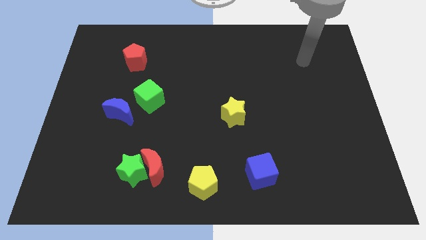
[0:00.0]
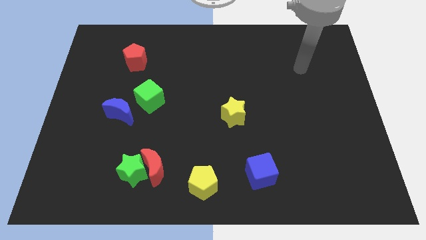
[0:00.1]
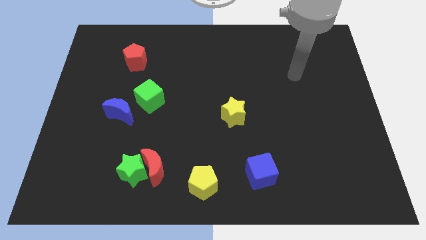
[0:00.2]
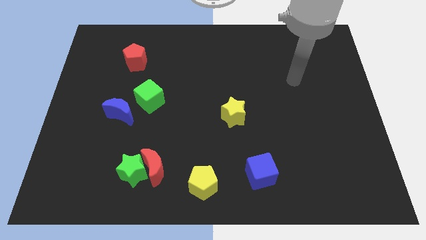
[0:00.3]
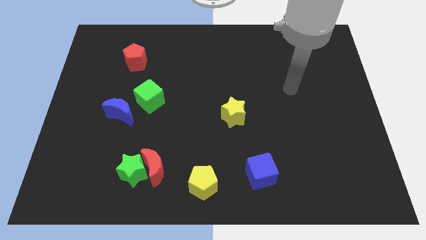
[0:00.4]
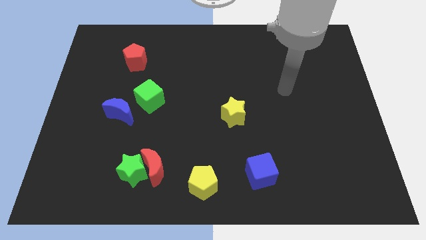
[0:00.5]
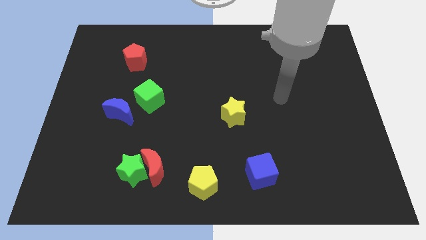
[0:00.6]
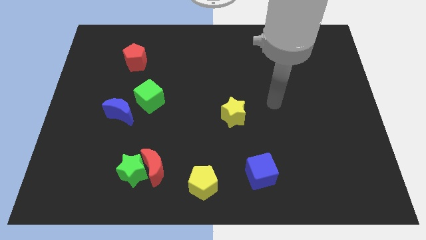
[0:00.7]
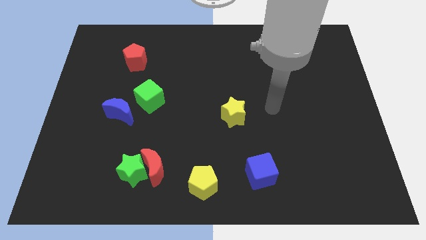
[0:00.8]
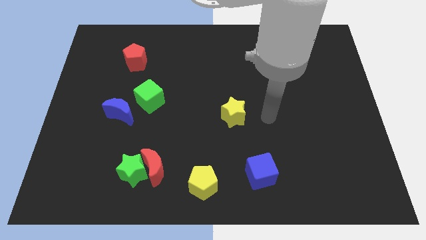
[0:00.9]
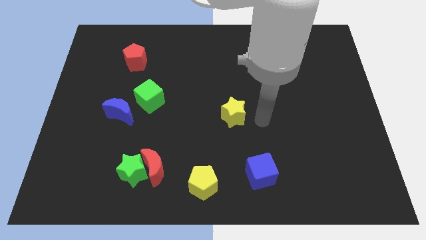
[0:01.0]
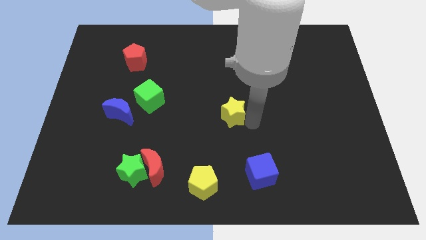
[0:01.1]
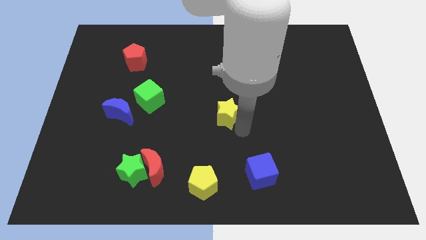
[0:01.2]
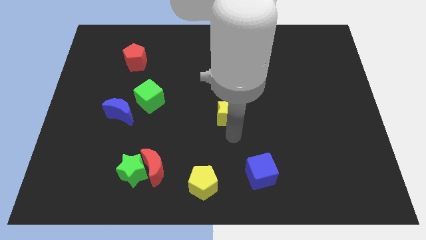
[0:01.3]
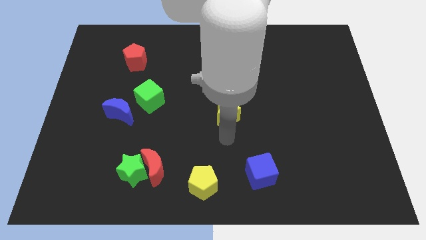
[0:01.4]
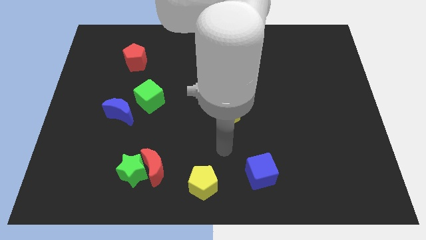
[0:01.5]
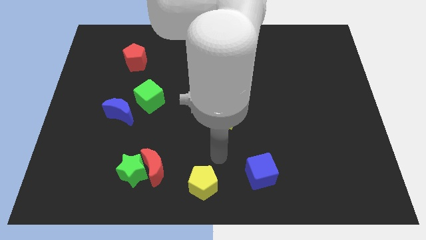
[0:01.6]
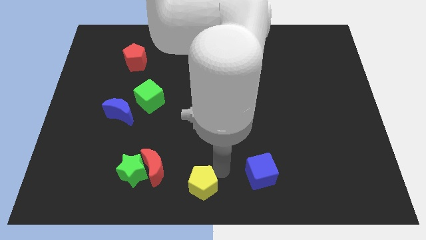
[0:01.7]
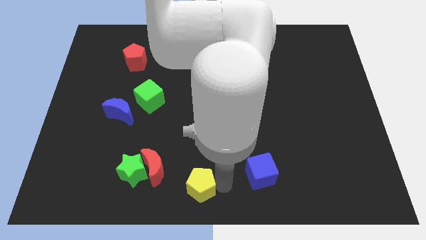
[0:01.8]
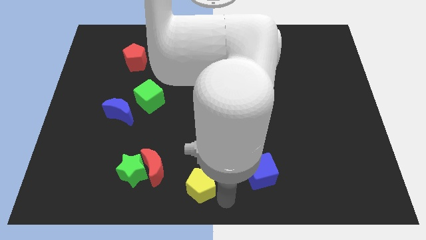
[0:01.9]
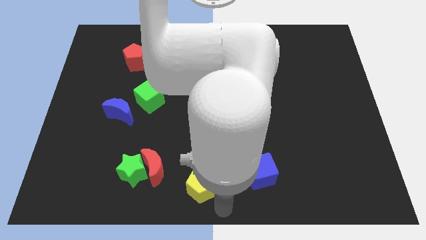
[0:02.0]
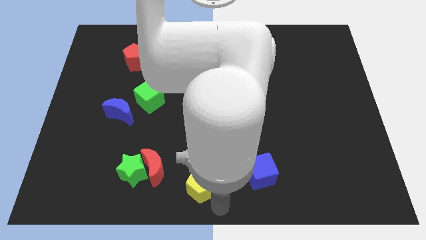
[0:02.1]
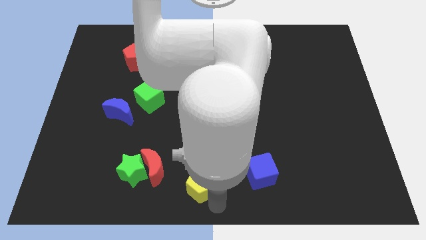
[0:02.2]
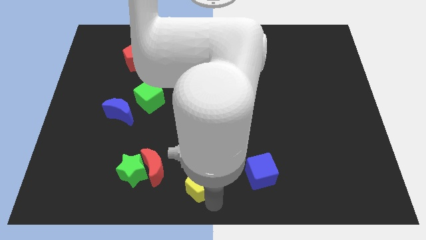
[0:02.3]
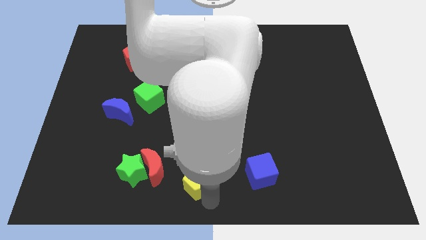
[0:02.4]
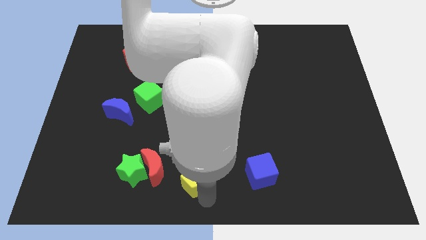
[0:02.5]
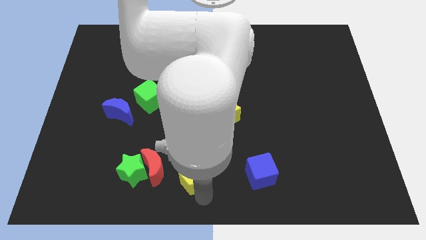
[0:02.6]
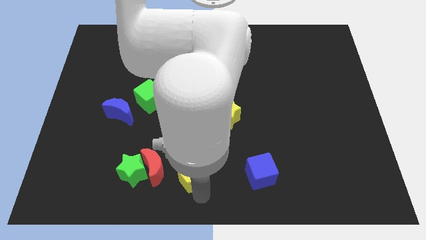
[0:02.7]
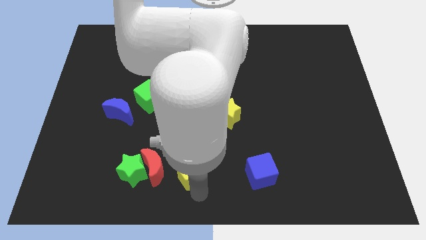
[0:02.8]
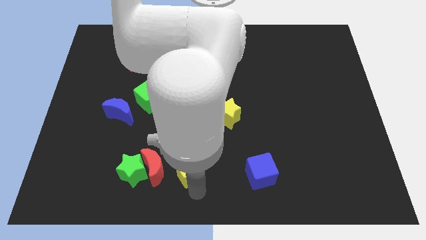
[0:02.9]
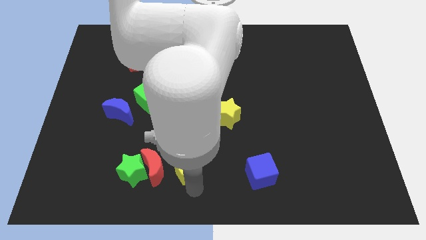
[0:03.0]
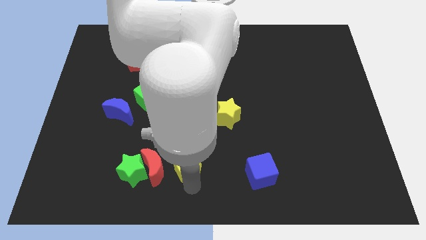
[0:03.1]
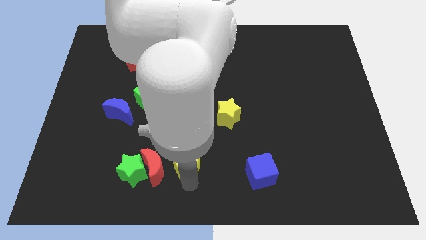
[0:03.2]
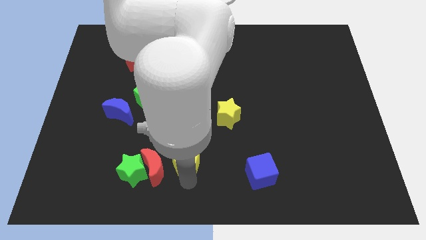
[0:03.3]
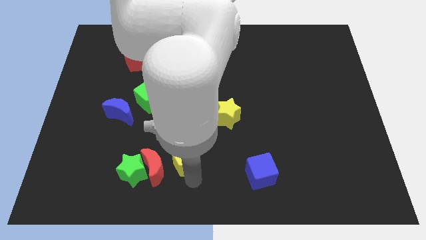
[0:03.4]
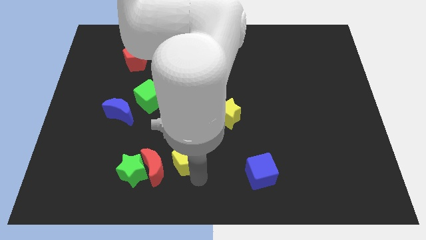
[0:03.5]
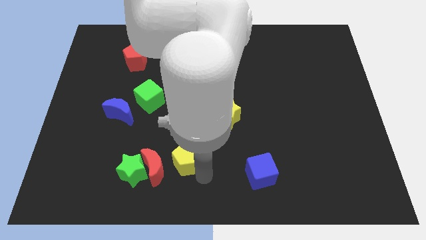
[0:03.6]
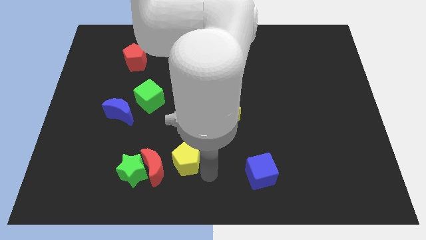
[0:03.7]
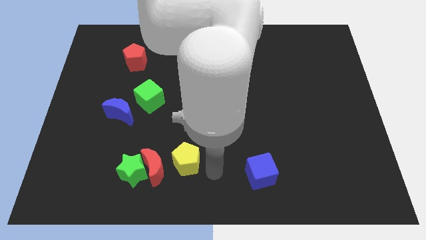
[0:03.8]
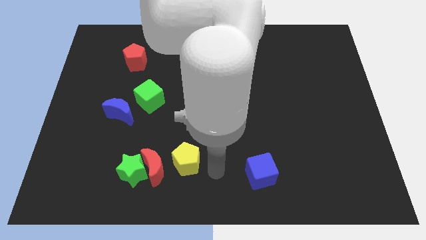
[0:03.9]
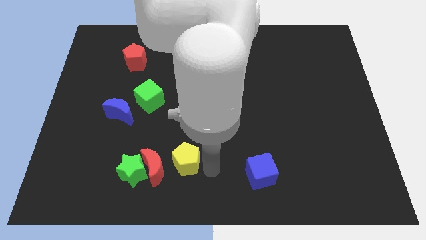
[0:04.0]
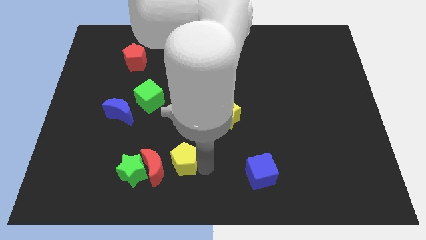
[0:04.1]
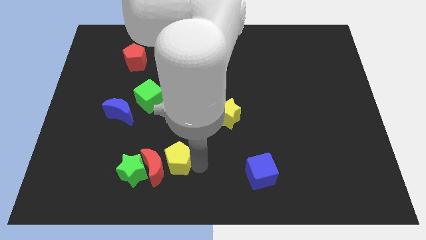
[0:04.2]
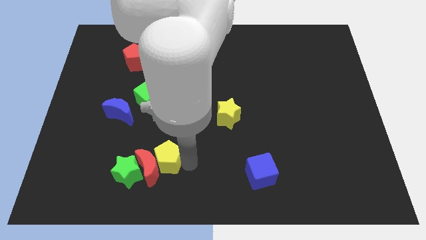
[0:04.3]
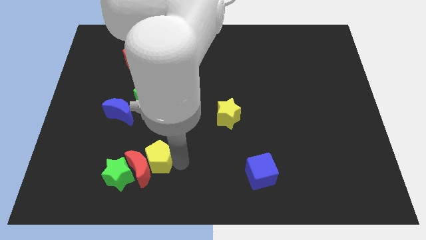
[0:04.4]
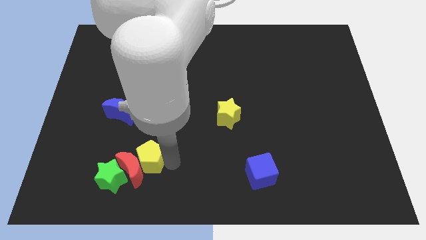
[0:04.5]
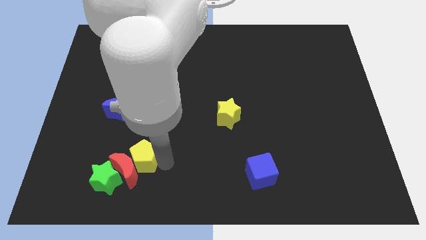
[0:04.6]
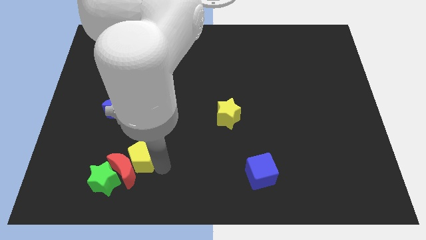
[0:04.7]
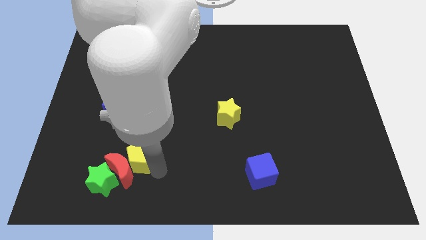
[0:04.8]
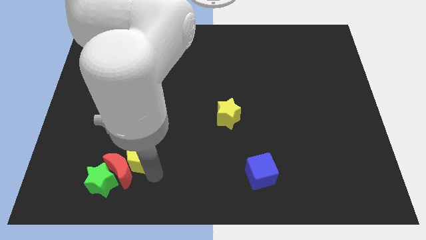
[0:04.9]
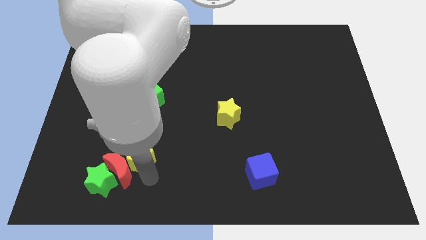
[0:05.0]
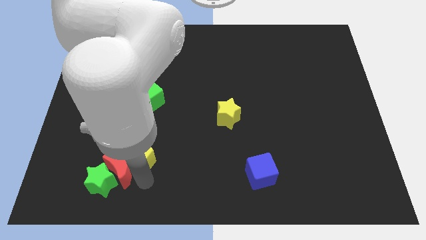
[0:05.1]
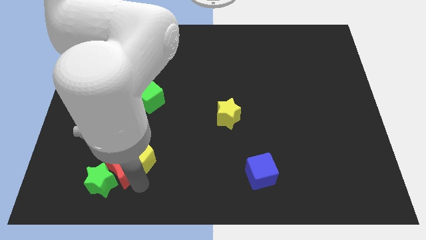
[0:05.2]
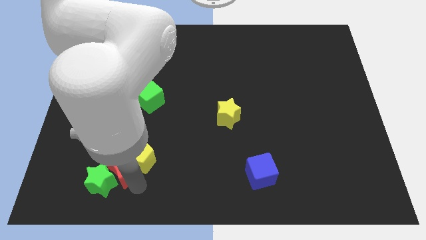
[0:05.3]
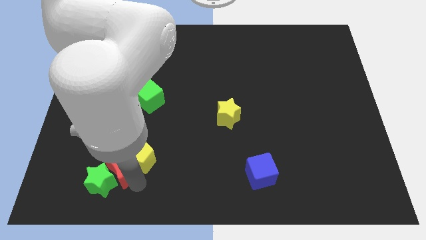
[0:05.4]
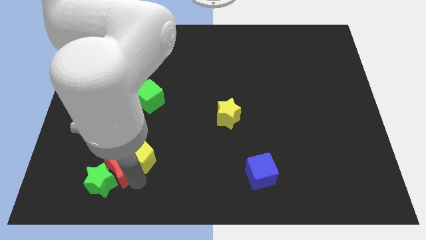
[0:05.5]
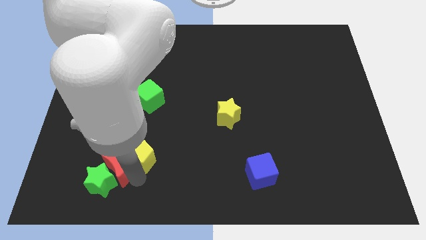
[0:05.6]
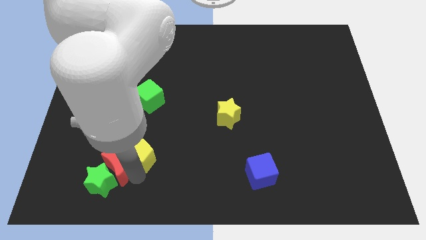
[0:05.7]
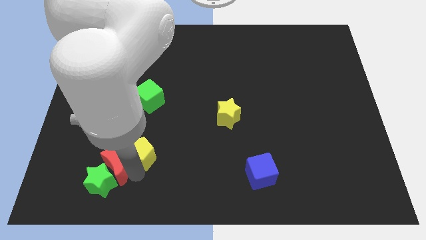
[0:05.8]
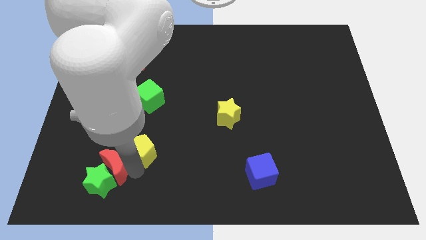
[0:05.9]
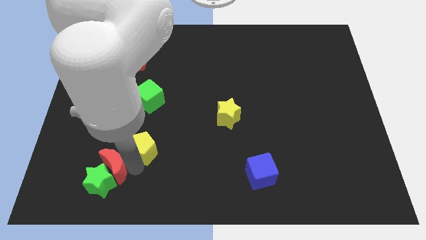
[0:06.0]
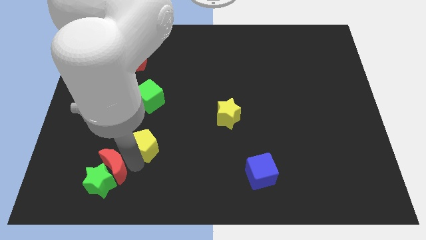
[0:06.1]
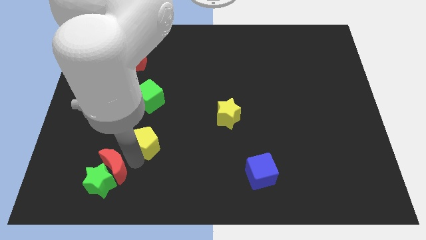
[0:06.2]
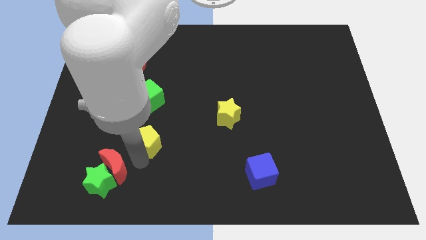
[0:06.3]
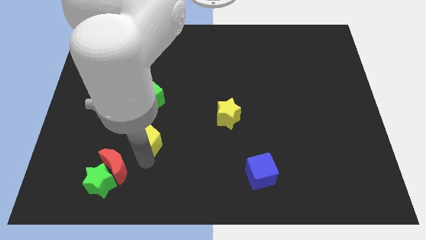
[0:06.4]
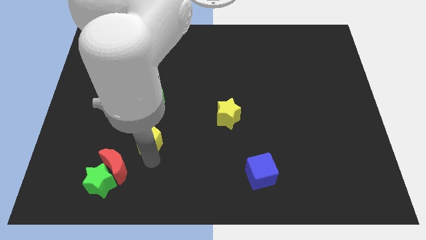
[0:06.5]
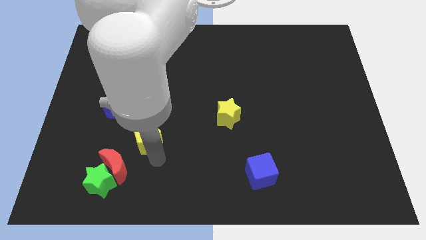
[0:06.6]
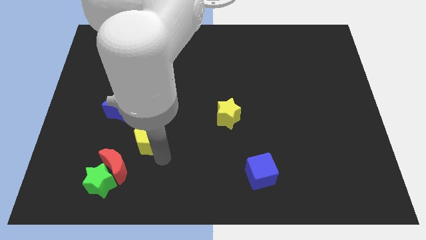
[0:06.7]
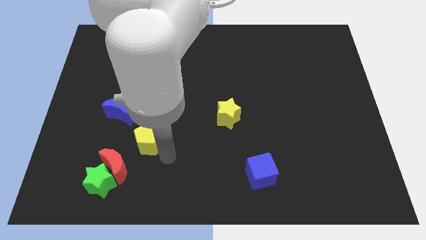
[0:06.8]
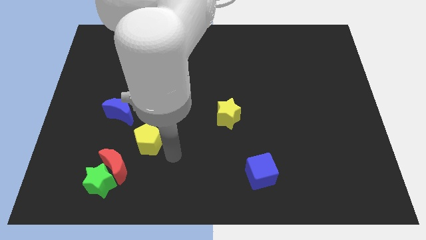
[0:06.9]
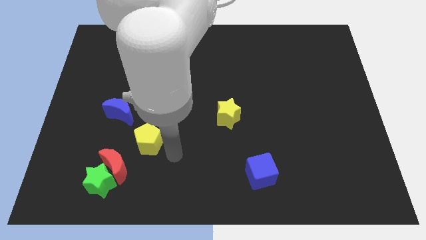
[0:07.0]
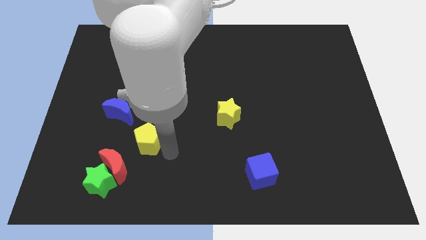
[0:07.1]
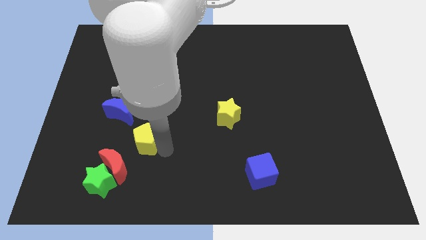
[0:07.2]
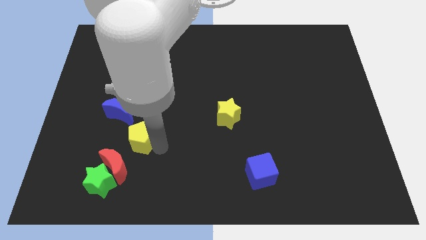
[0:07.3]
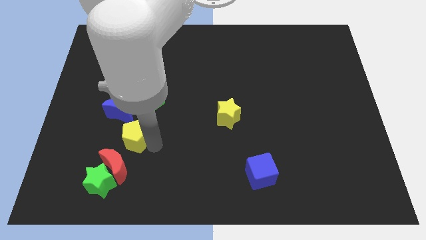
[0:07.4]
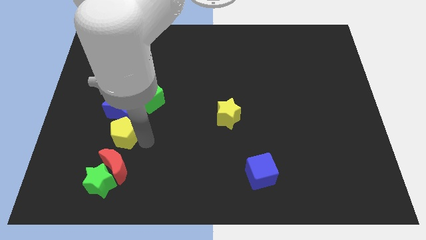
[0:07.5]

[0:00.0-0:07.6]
move the yellow pentagon diagonally up and left

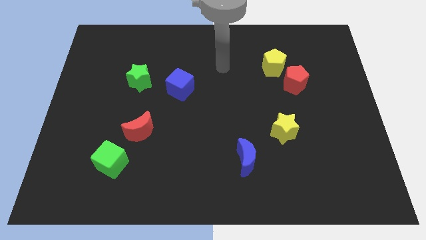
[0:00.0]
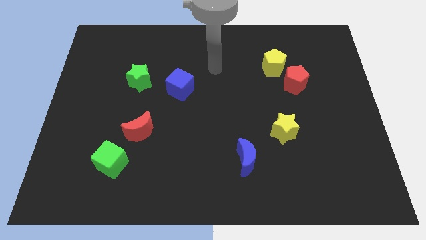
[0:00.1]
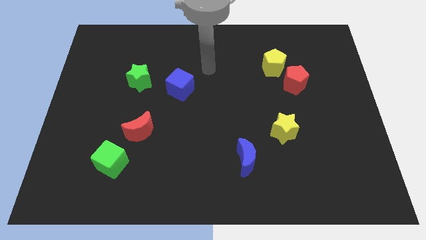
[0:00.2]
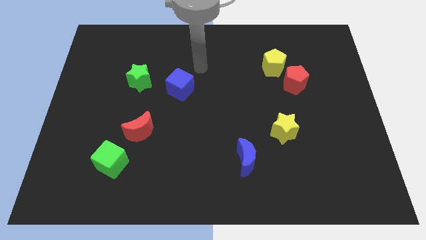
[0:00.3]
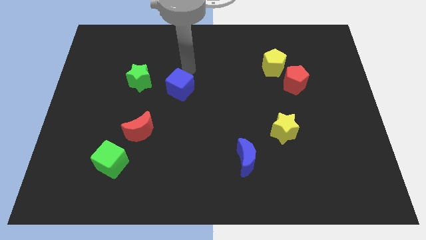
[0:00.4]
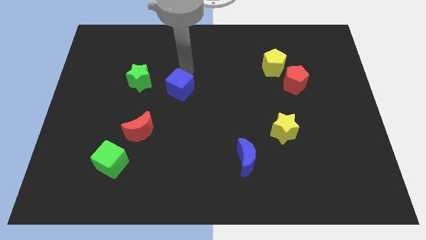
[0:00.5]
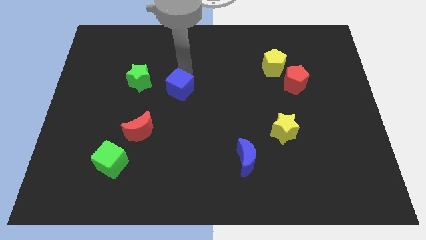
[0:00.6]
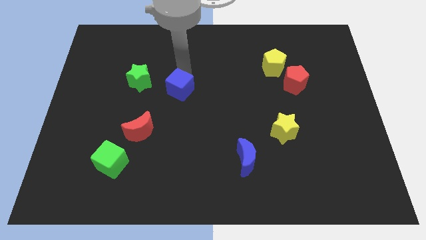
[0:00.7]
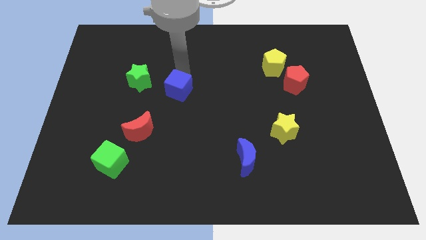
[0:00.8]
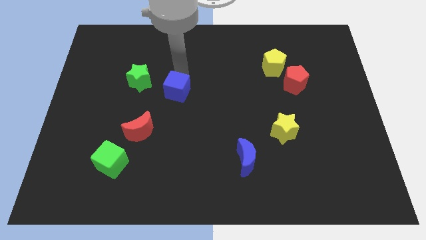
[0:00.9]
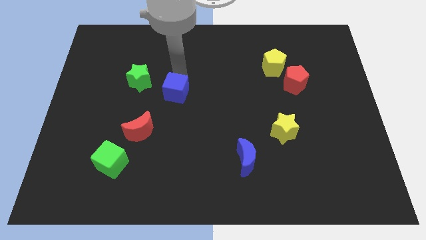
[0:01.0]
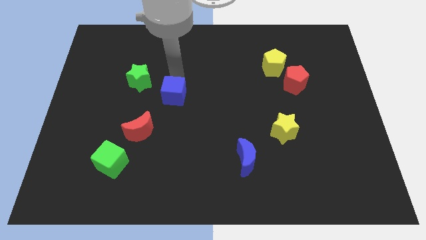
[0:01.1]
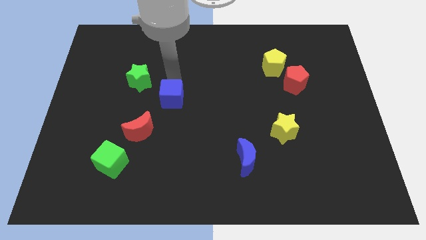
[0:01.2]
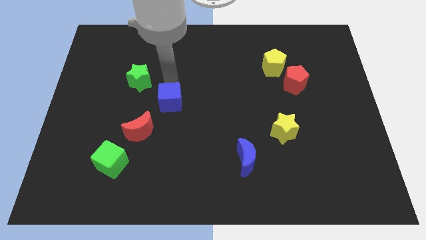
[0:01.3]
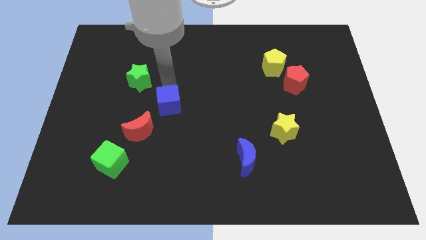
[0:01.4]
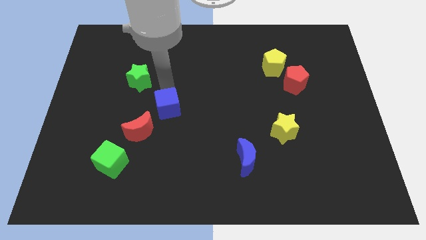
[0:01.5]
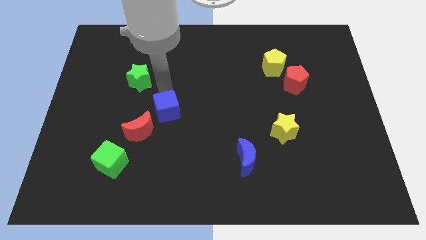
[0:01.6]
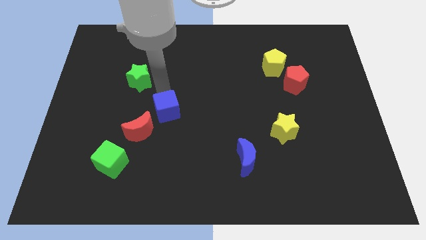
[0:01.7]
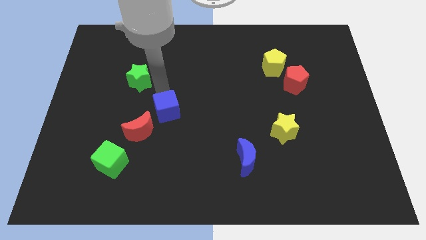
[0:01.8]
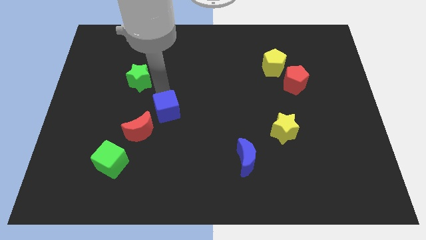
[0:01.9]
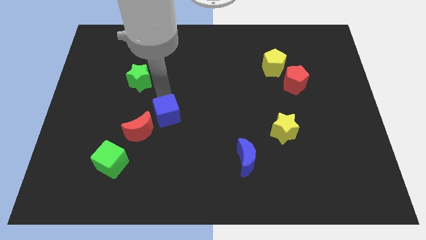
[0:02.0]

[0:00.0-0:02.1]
slightly slide the blue cube down
